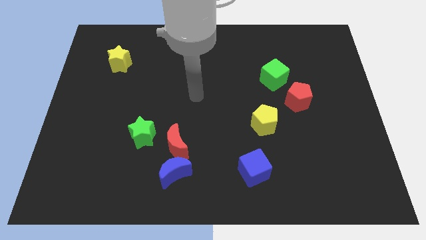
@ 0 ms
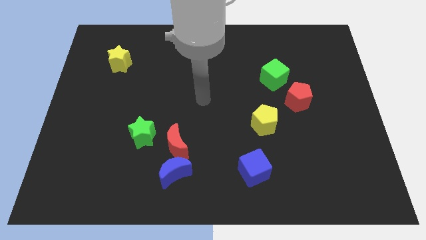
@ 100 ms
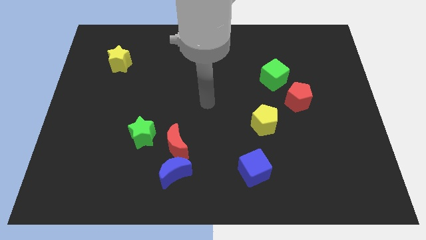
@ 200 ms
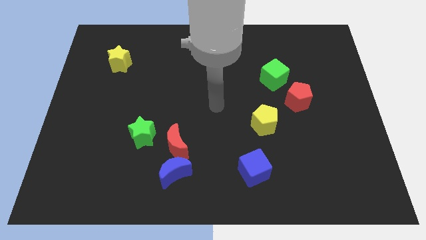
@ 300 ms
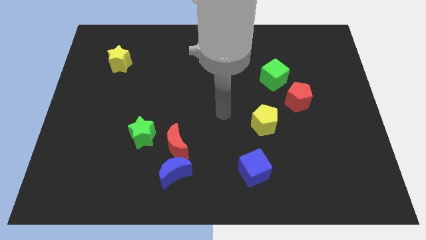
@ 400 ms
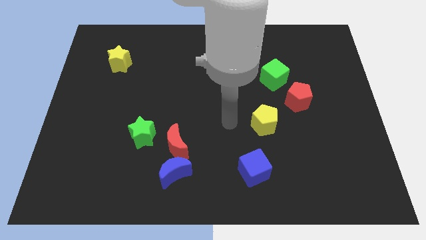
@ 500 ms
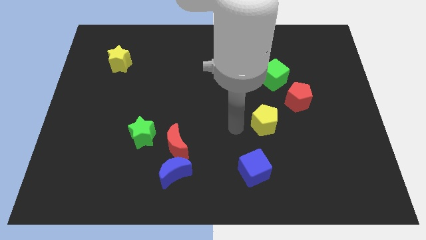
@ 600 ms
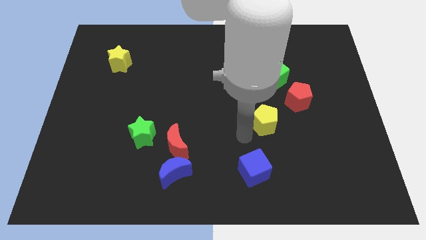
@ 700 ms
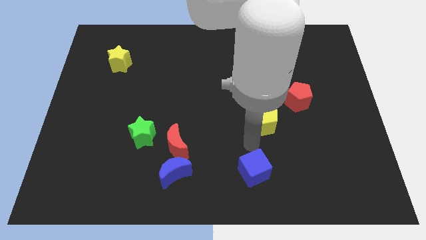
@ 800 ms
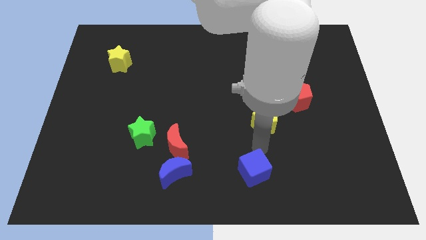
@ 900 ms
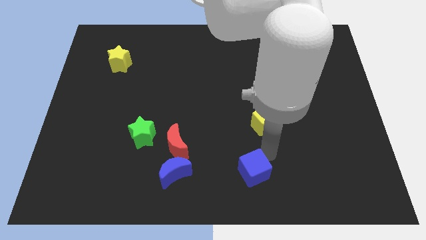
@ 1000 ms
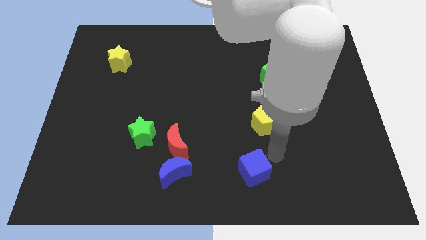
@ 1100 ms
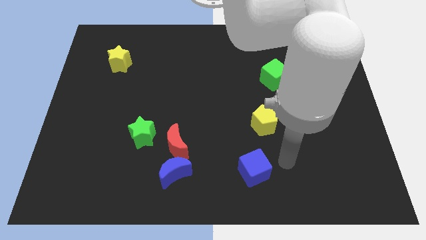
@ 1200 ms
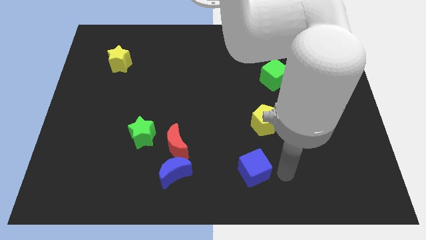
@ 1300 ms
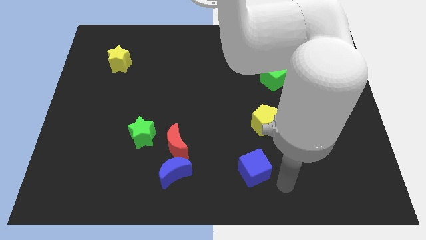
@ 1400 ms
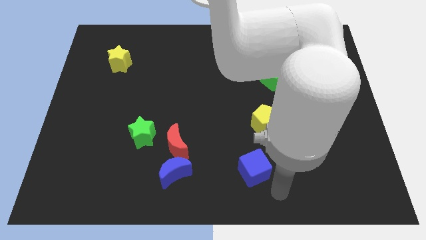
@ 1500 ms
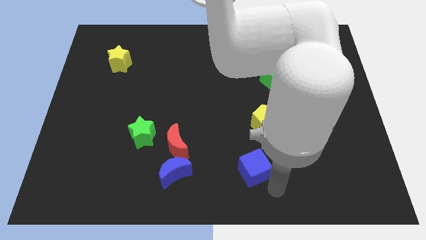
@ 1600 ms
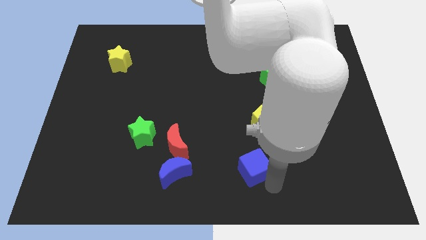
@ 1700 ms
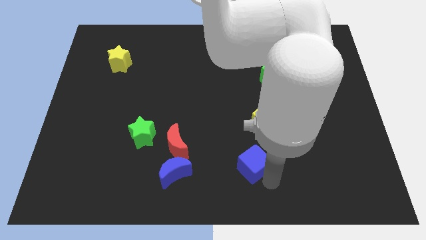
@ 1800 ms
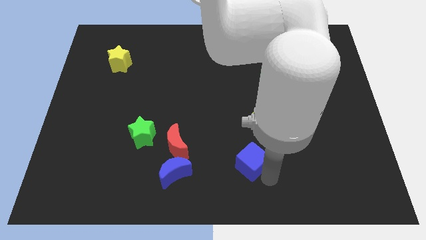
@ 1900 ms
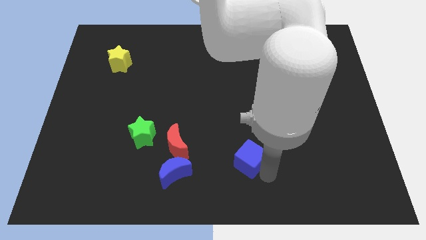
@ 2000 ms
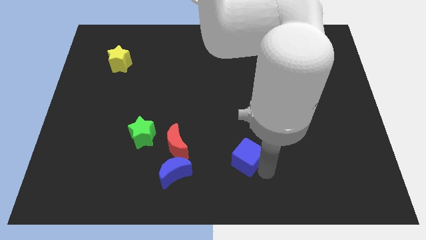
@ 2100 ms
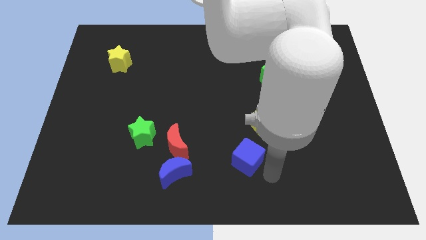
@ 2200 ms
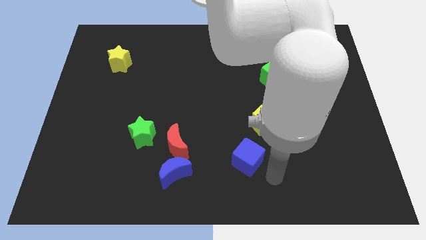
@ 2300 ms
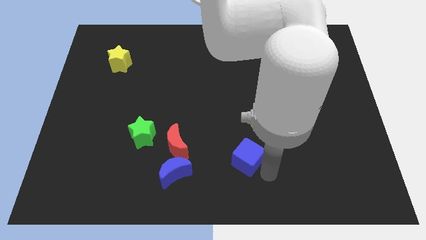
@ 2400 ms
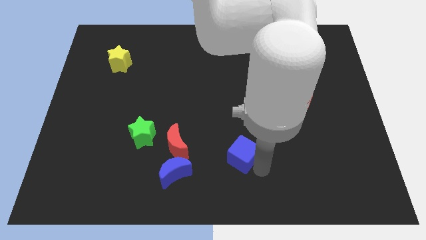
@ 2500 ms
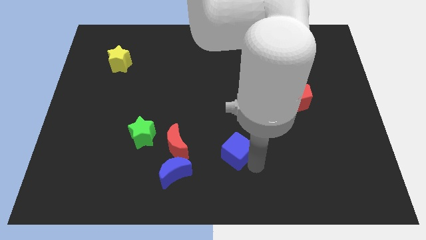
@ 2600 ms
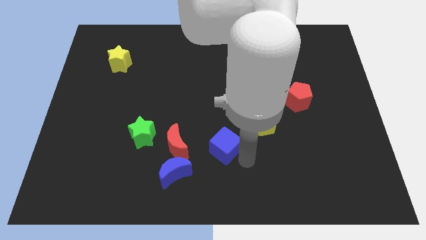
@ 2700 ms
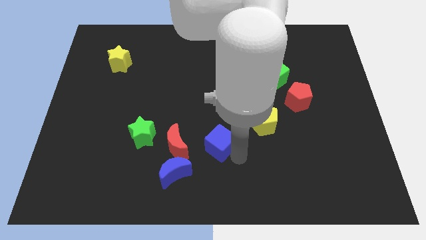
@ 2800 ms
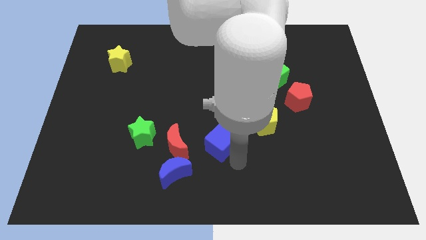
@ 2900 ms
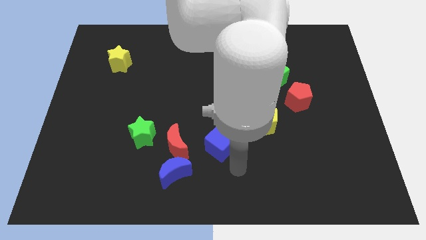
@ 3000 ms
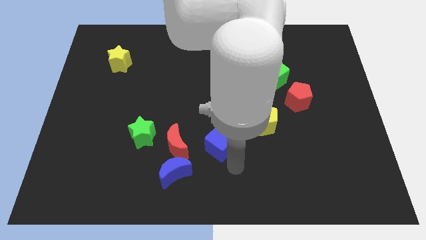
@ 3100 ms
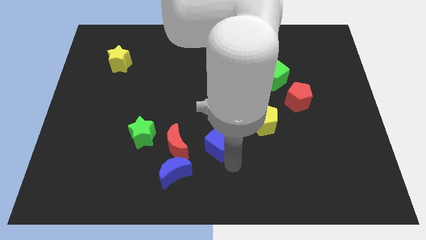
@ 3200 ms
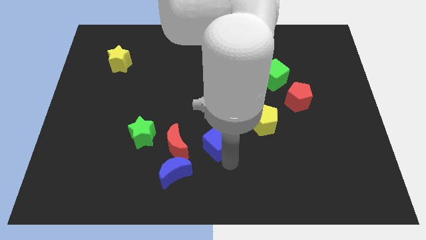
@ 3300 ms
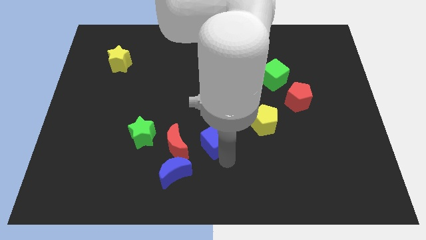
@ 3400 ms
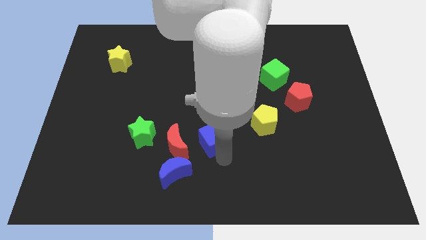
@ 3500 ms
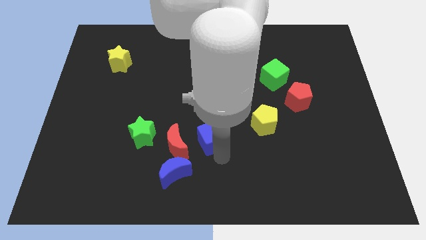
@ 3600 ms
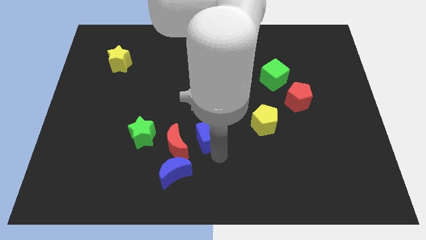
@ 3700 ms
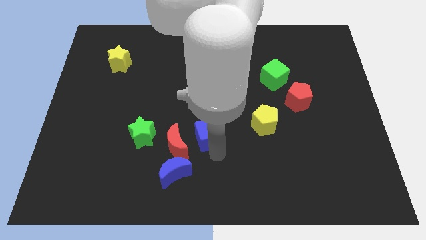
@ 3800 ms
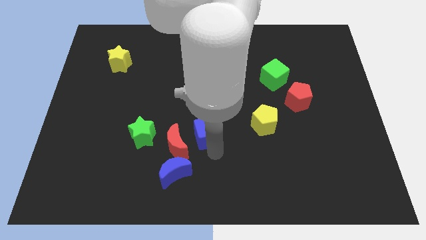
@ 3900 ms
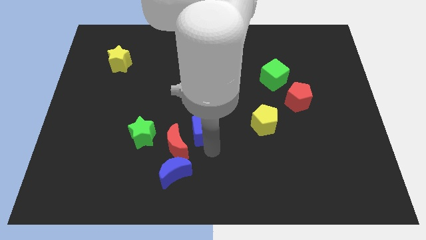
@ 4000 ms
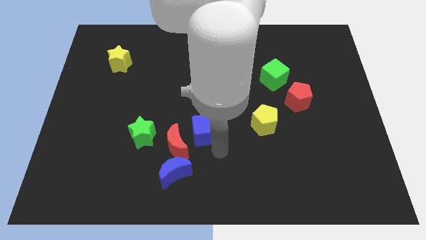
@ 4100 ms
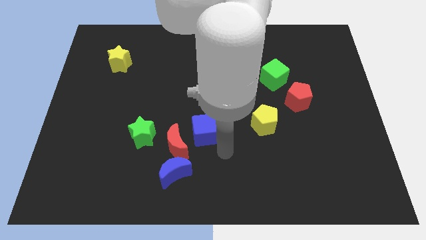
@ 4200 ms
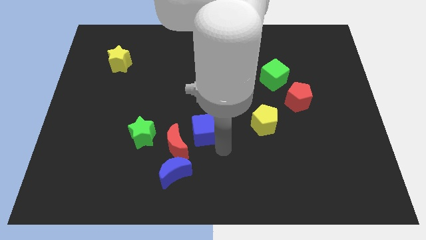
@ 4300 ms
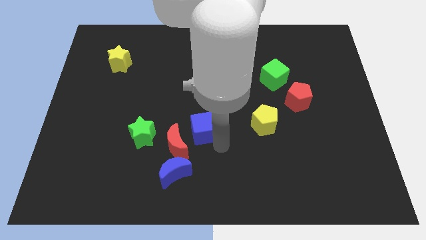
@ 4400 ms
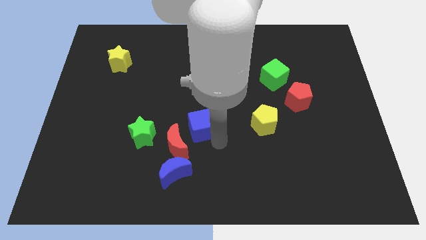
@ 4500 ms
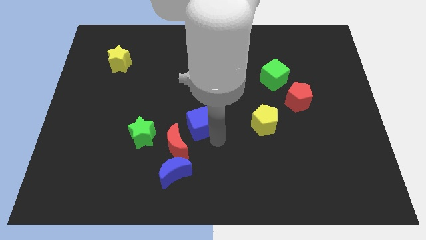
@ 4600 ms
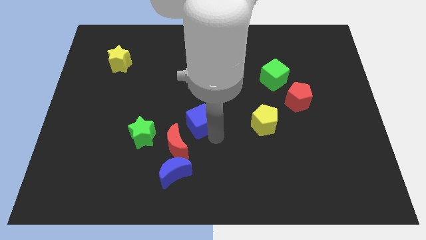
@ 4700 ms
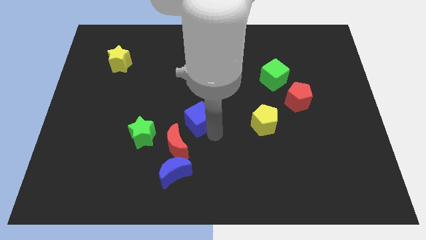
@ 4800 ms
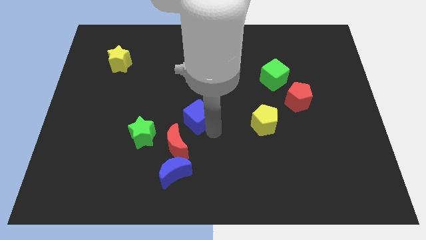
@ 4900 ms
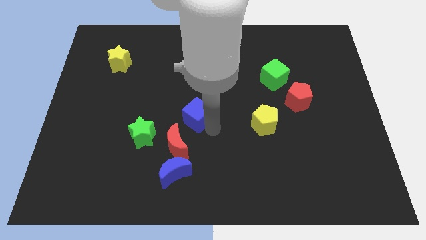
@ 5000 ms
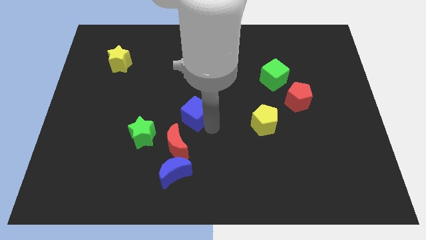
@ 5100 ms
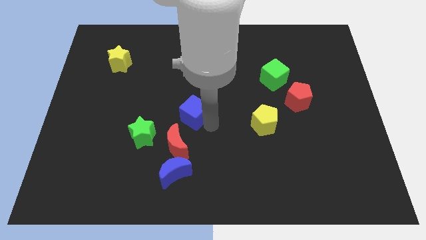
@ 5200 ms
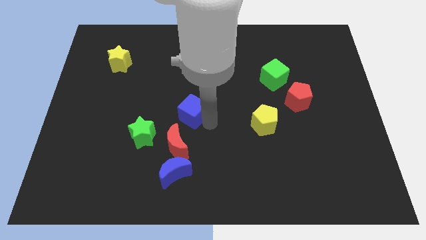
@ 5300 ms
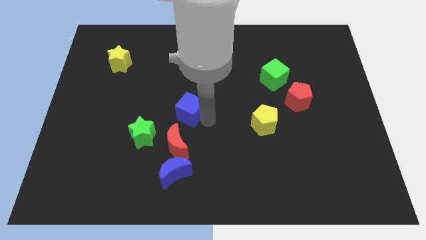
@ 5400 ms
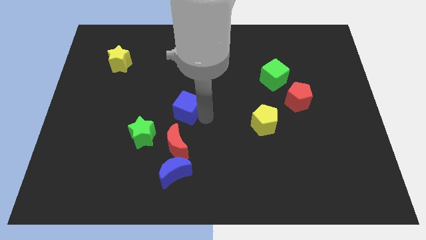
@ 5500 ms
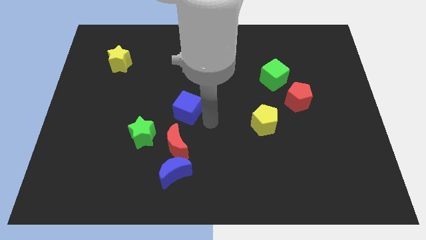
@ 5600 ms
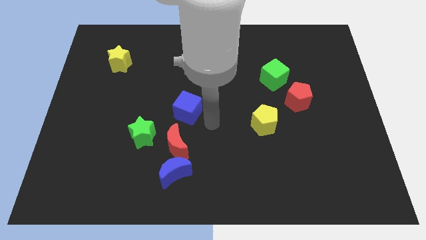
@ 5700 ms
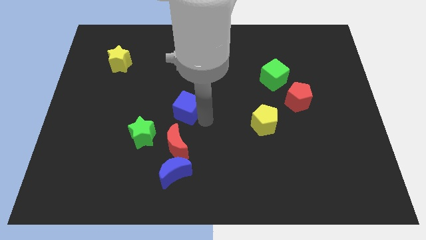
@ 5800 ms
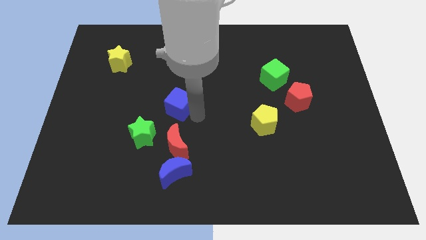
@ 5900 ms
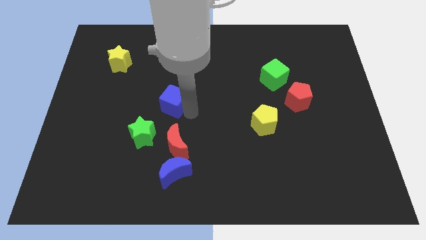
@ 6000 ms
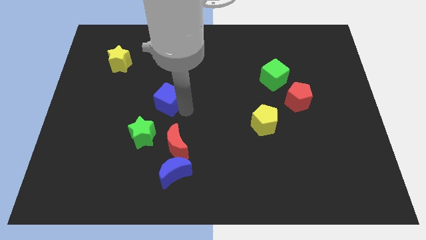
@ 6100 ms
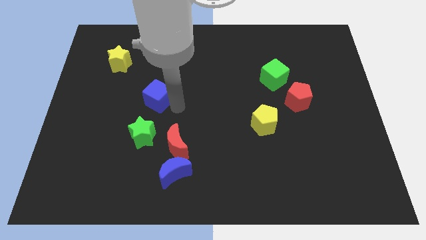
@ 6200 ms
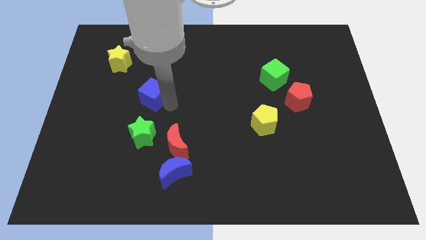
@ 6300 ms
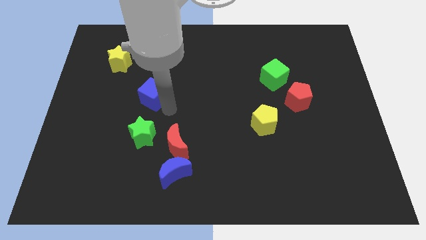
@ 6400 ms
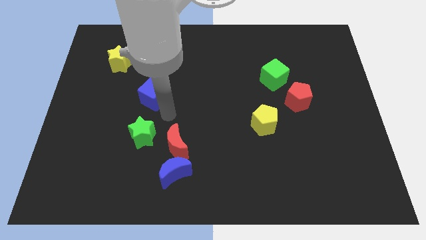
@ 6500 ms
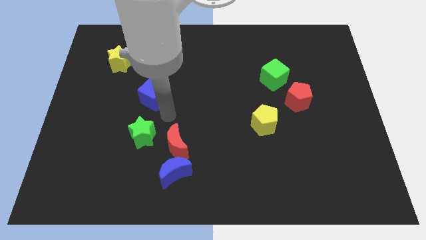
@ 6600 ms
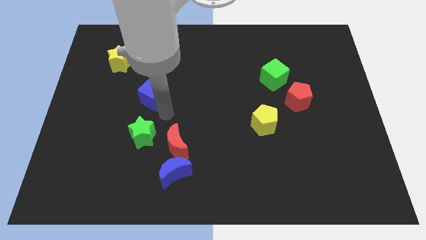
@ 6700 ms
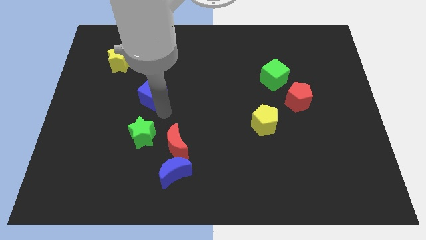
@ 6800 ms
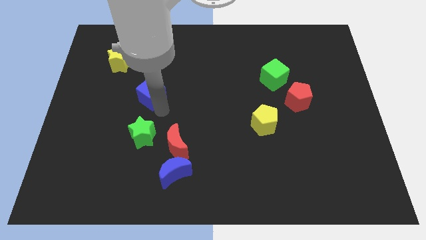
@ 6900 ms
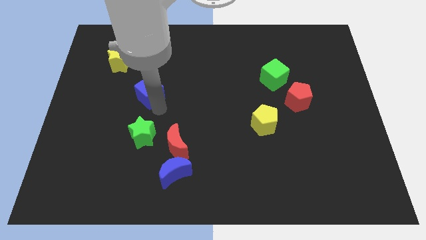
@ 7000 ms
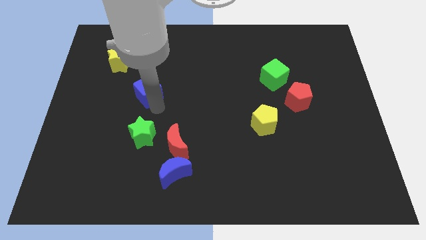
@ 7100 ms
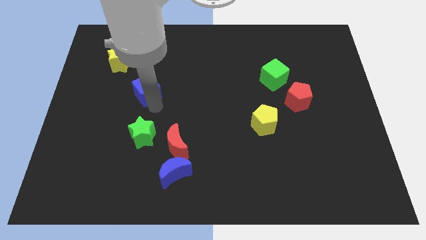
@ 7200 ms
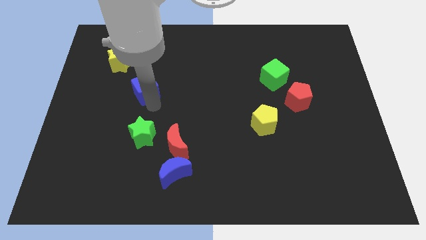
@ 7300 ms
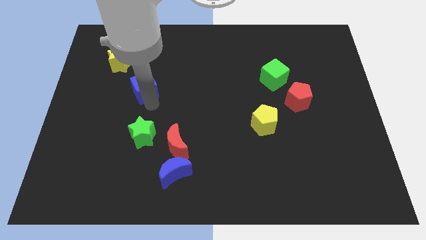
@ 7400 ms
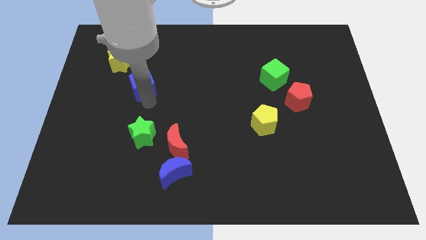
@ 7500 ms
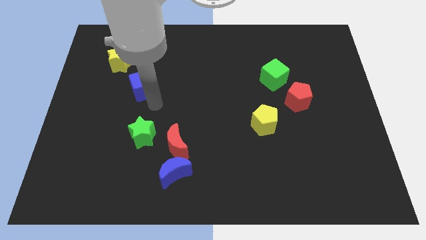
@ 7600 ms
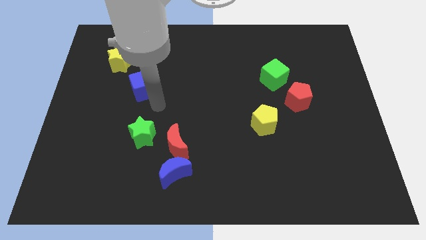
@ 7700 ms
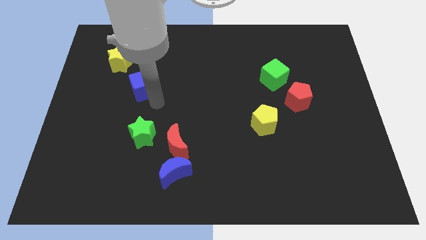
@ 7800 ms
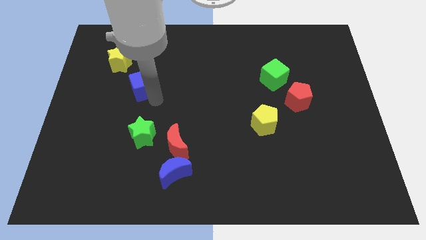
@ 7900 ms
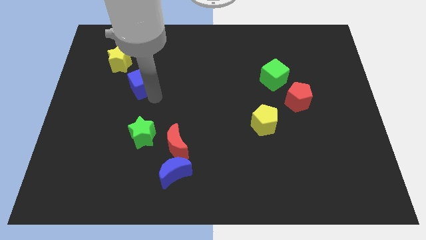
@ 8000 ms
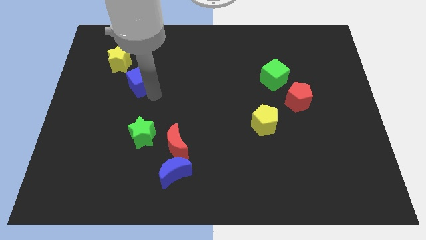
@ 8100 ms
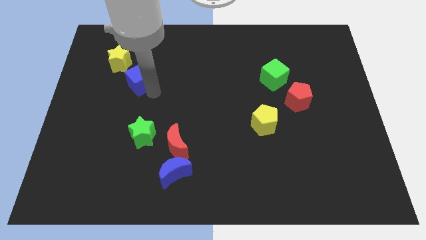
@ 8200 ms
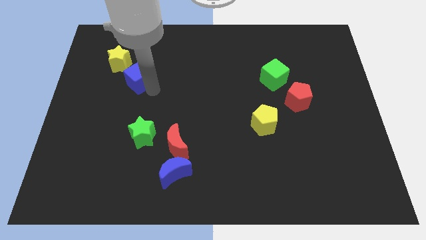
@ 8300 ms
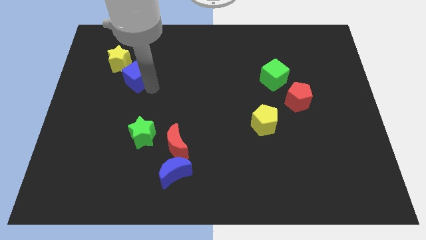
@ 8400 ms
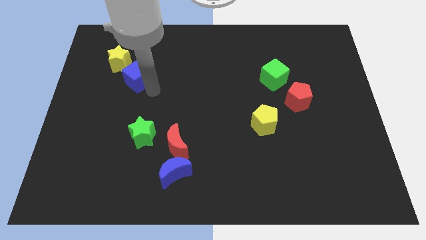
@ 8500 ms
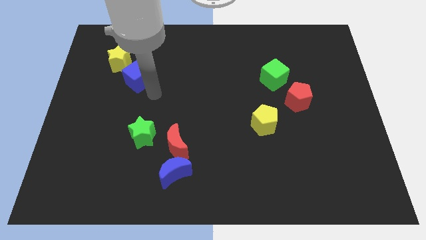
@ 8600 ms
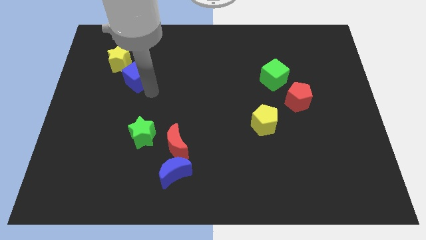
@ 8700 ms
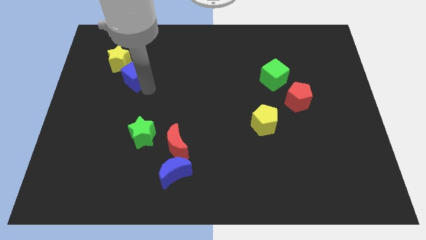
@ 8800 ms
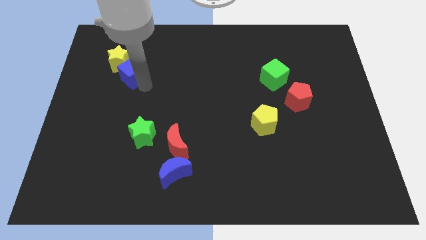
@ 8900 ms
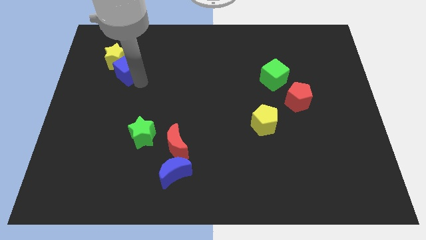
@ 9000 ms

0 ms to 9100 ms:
slide the blue cube to the yellow star
